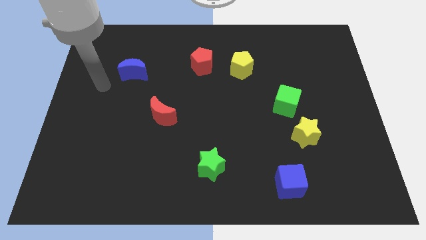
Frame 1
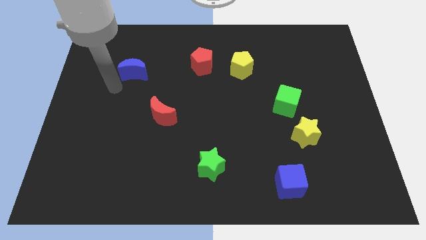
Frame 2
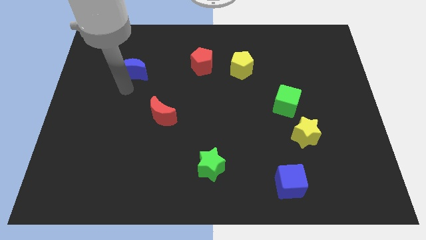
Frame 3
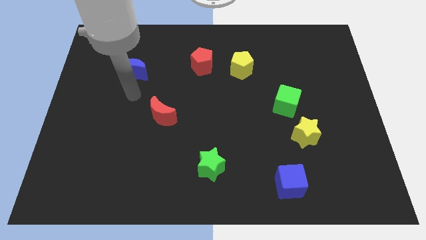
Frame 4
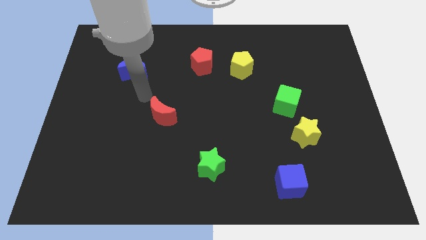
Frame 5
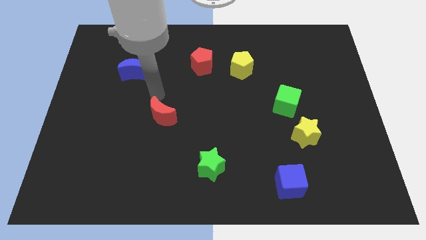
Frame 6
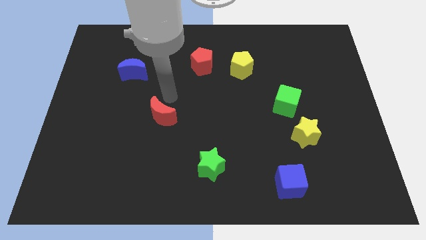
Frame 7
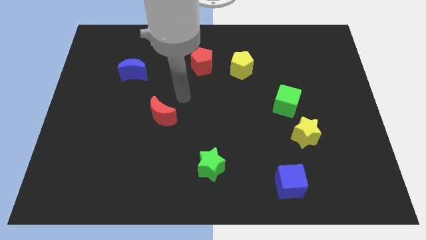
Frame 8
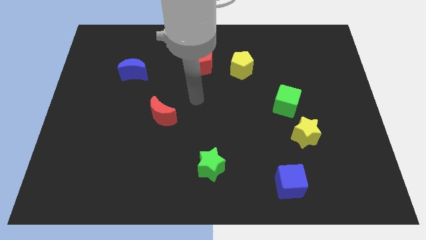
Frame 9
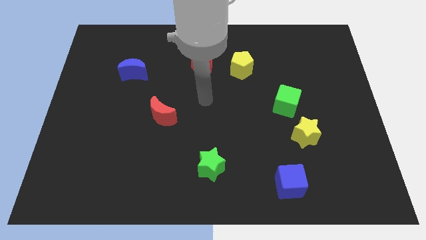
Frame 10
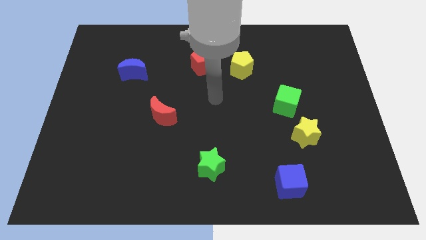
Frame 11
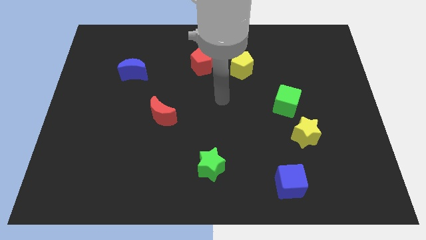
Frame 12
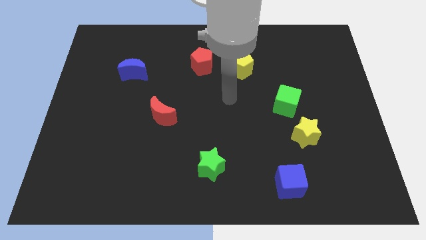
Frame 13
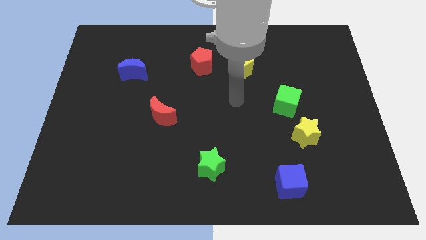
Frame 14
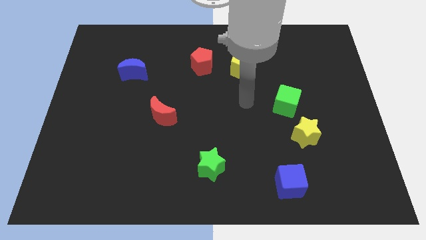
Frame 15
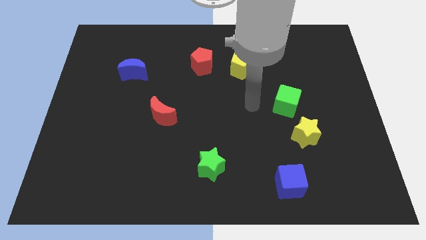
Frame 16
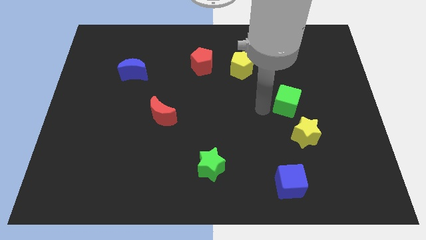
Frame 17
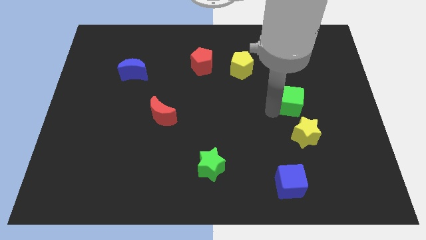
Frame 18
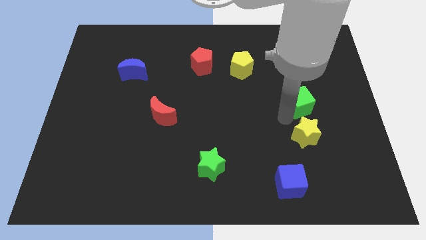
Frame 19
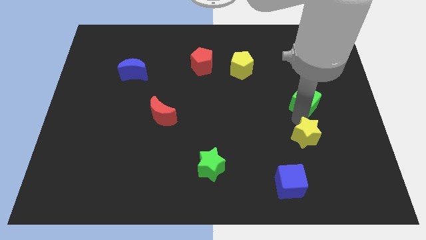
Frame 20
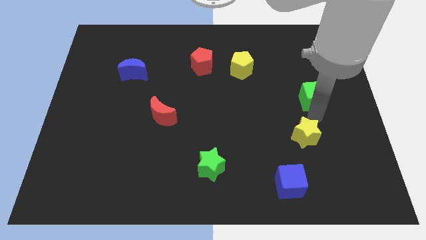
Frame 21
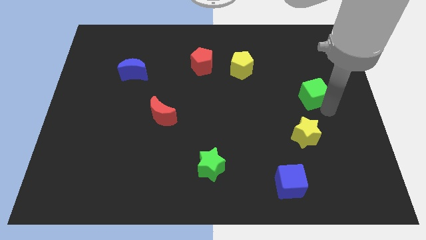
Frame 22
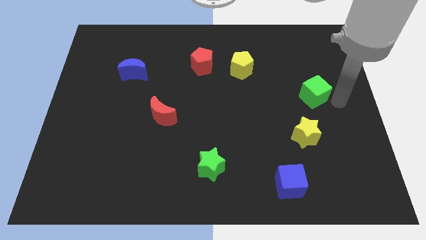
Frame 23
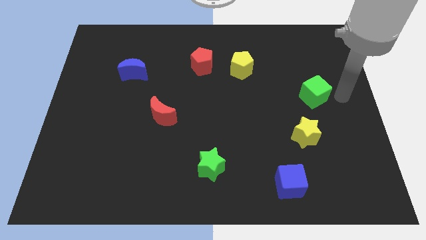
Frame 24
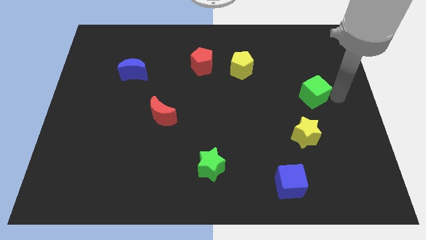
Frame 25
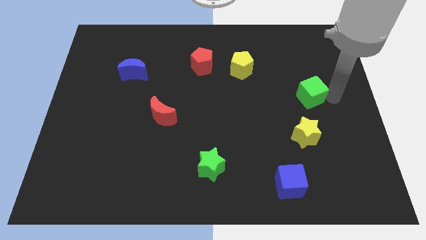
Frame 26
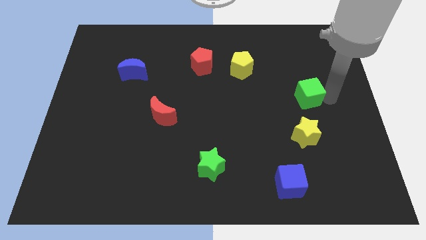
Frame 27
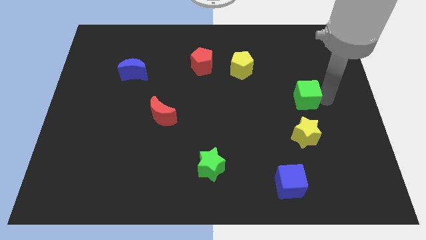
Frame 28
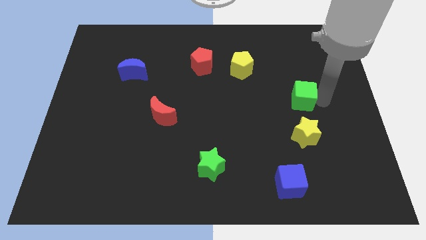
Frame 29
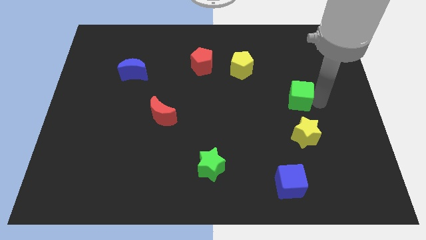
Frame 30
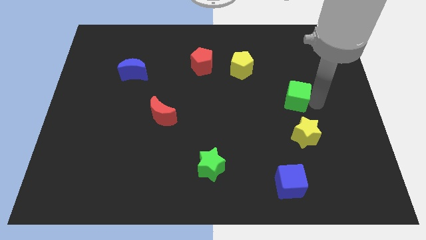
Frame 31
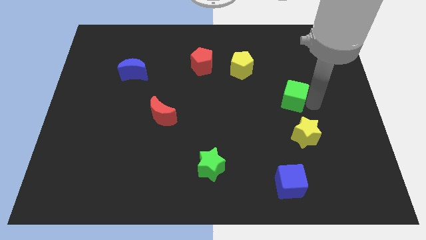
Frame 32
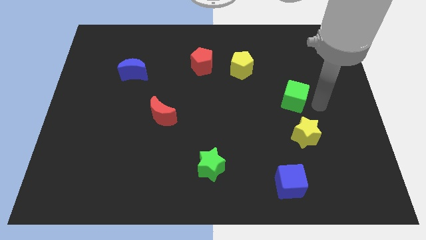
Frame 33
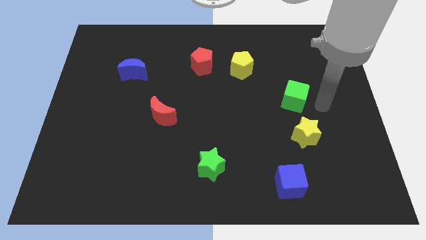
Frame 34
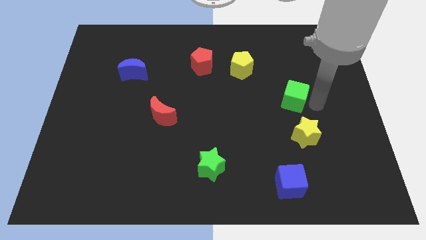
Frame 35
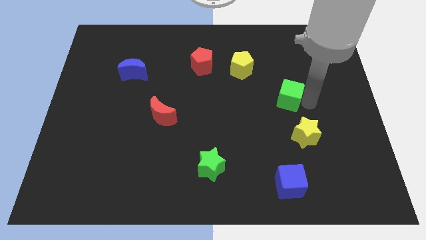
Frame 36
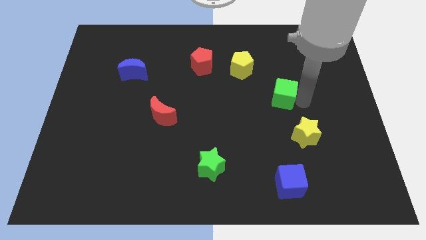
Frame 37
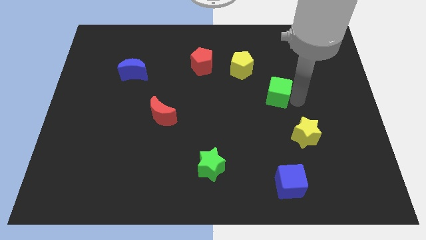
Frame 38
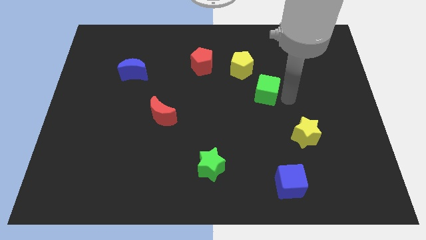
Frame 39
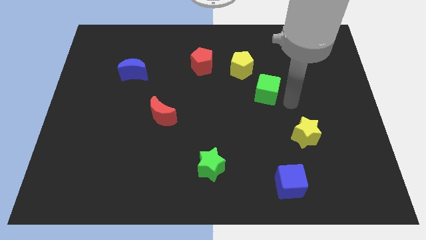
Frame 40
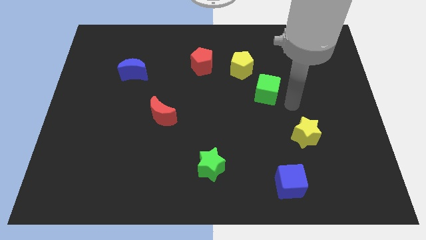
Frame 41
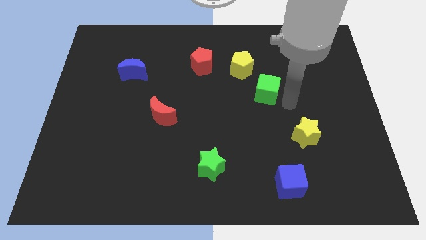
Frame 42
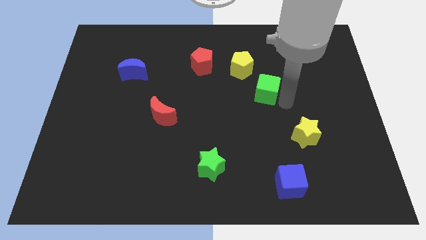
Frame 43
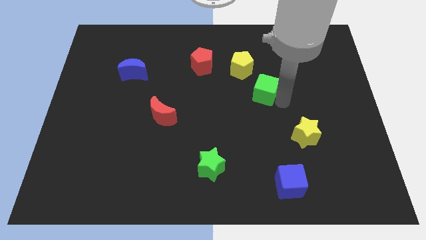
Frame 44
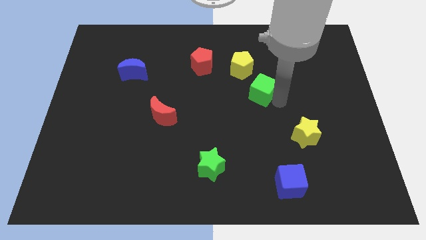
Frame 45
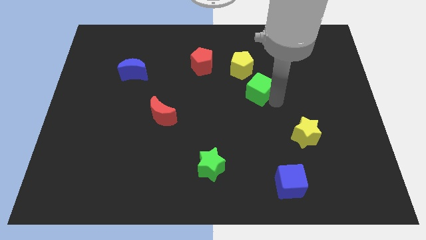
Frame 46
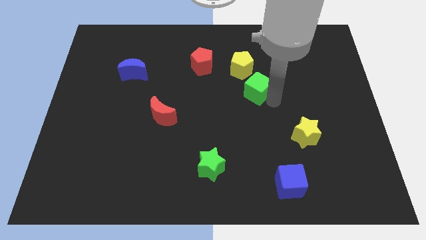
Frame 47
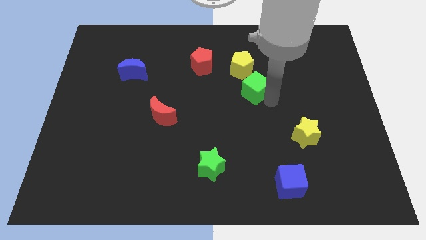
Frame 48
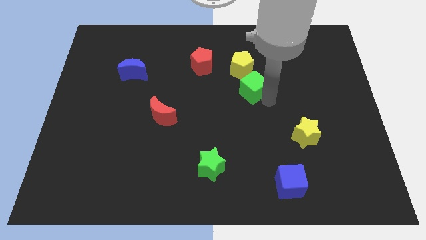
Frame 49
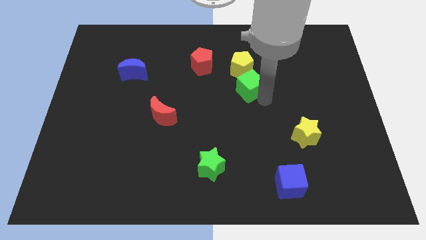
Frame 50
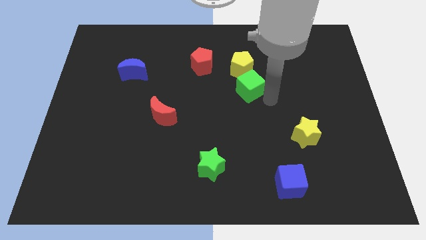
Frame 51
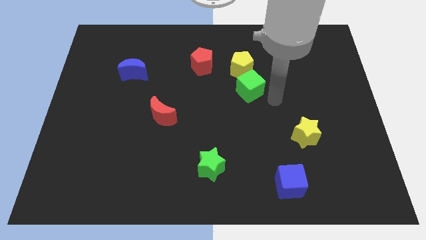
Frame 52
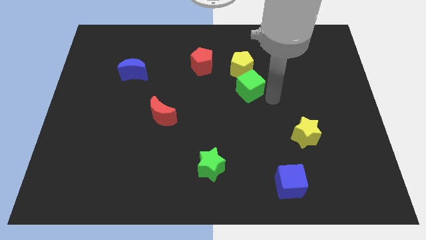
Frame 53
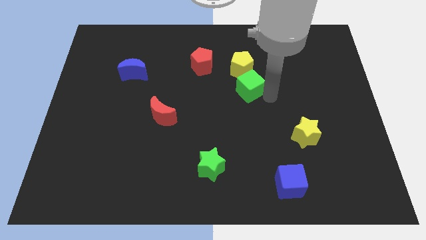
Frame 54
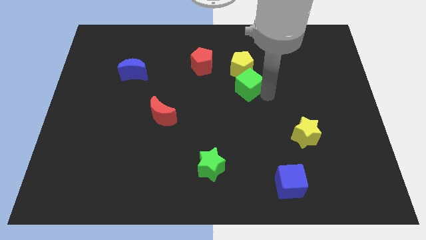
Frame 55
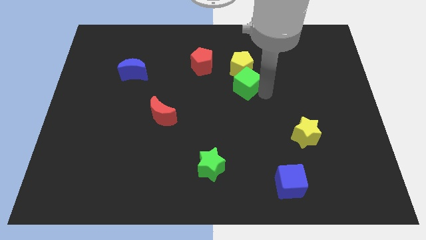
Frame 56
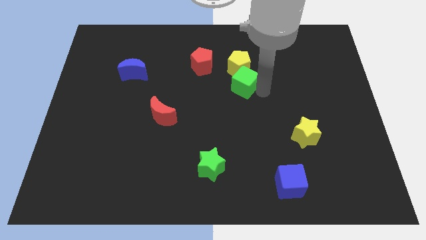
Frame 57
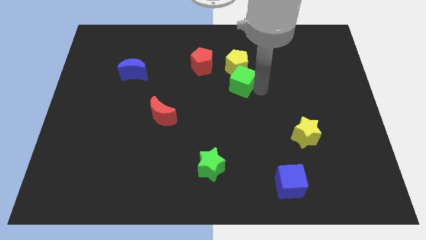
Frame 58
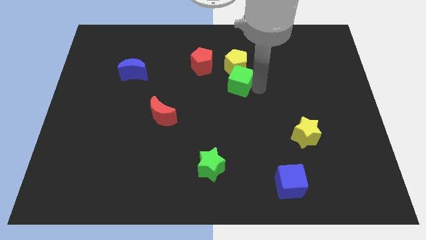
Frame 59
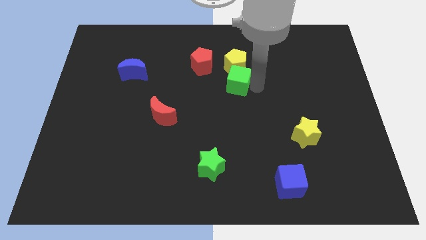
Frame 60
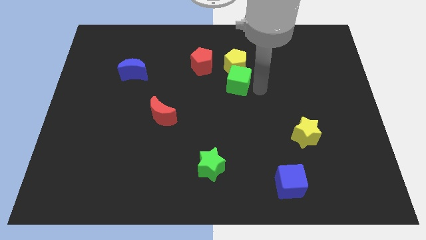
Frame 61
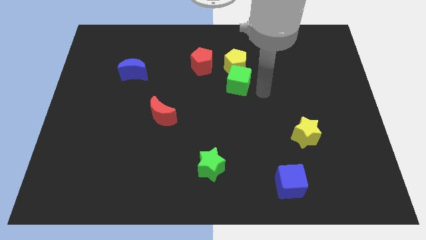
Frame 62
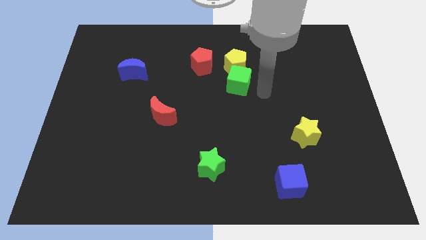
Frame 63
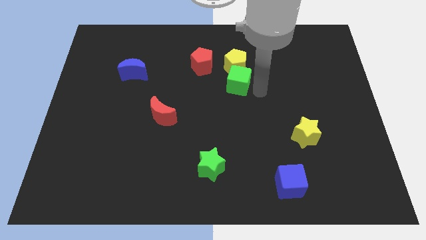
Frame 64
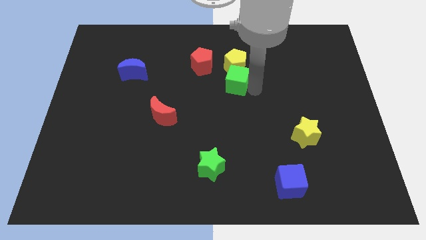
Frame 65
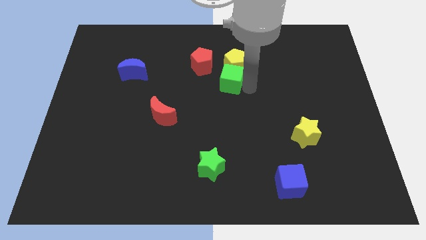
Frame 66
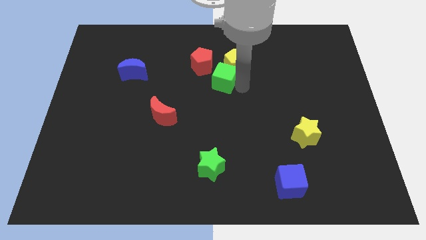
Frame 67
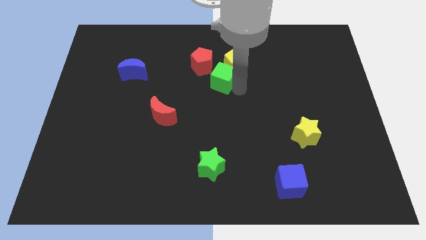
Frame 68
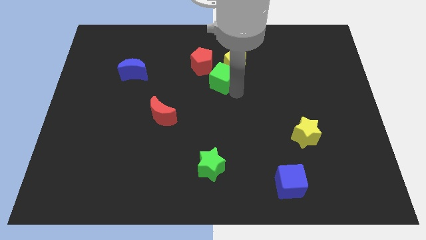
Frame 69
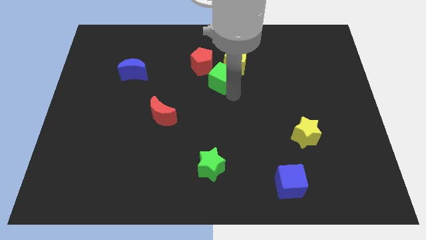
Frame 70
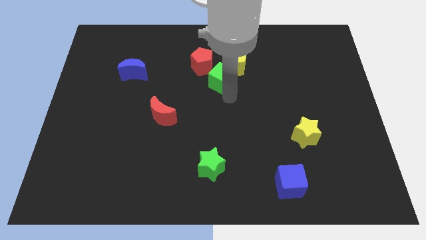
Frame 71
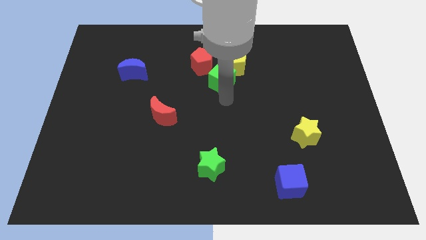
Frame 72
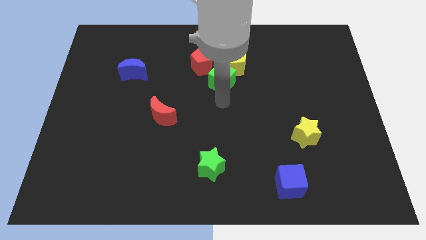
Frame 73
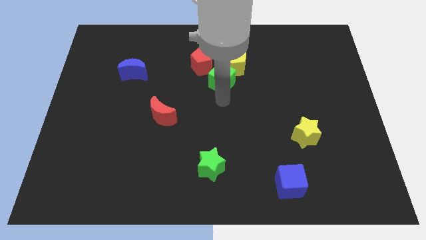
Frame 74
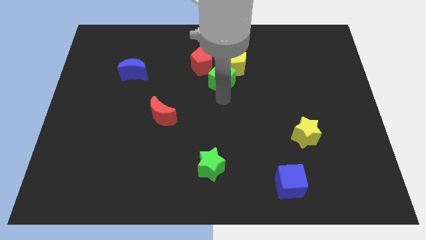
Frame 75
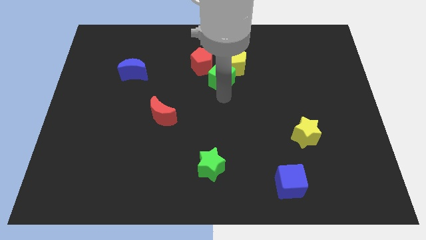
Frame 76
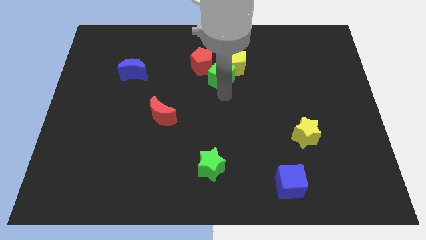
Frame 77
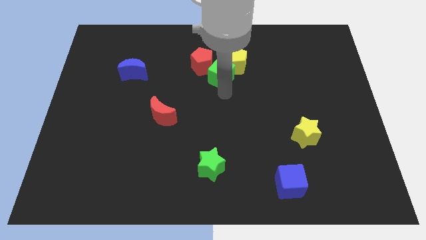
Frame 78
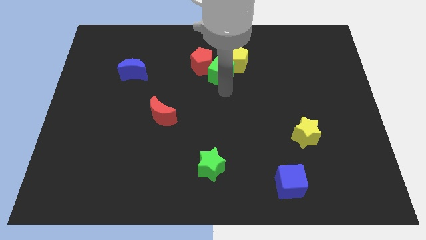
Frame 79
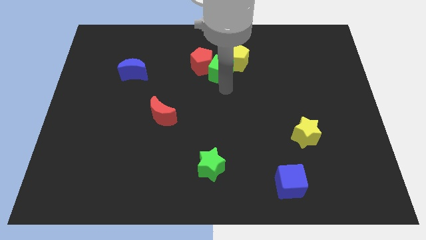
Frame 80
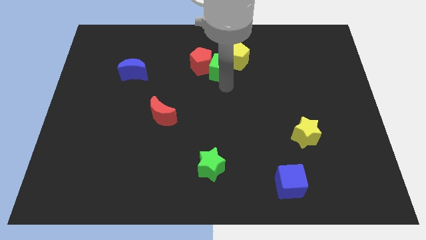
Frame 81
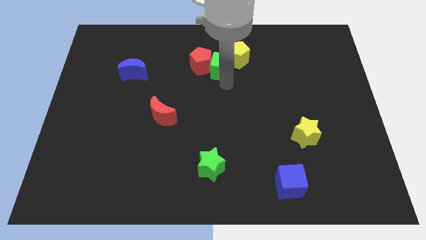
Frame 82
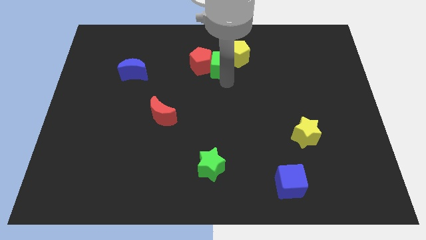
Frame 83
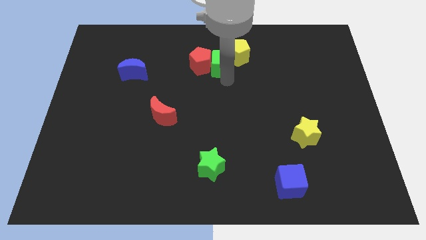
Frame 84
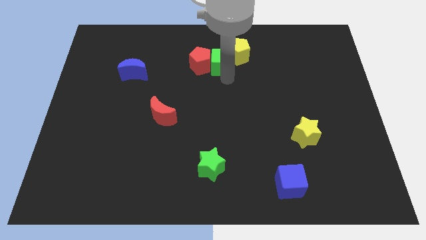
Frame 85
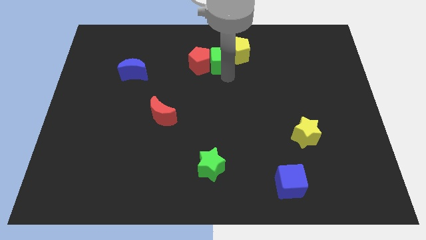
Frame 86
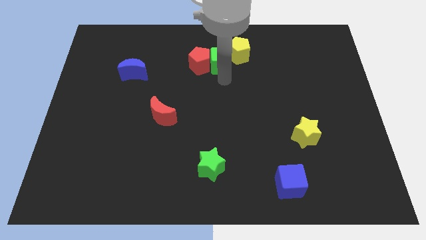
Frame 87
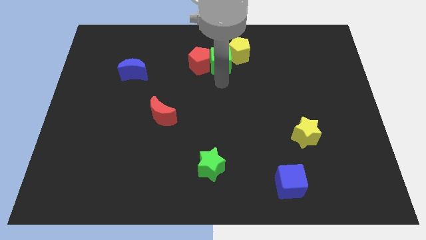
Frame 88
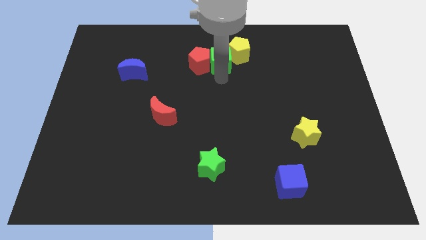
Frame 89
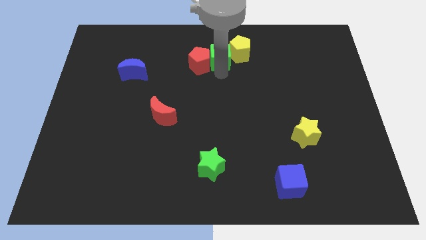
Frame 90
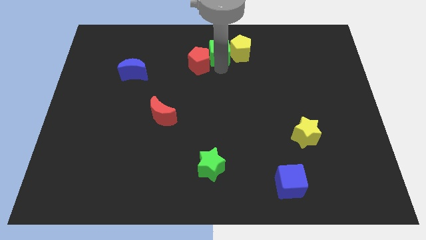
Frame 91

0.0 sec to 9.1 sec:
slide the green cube to the top
